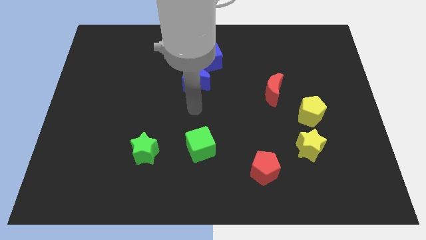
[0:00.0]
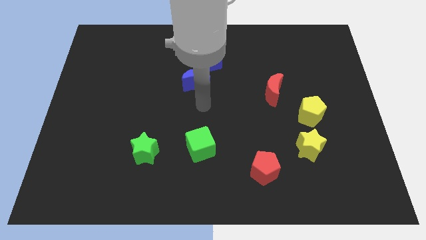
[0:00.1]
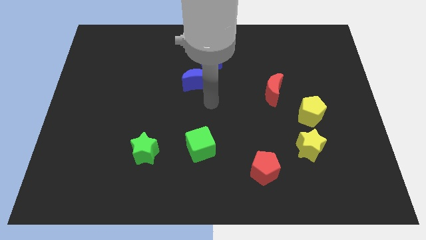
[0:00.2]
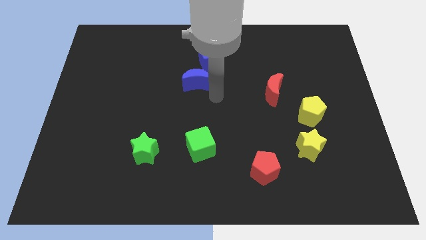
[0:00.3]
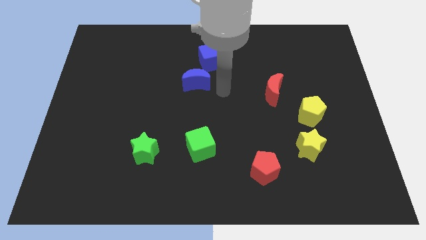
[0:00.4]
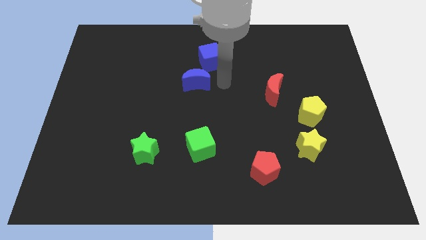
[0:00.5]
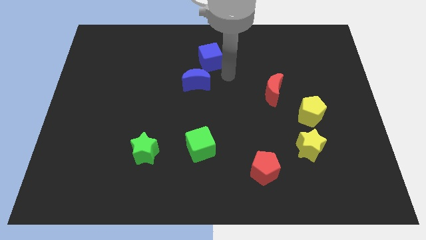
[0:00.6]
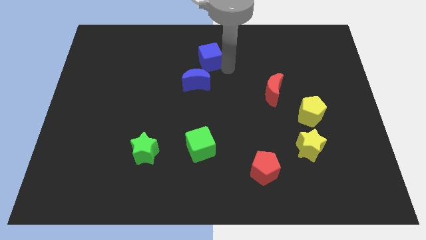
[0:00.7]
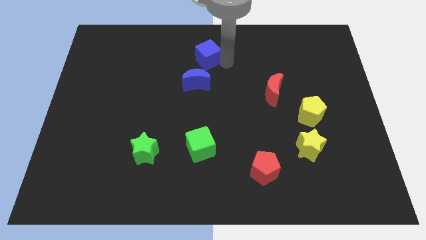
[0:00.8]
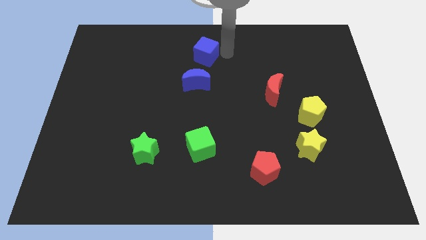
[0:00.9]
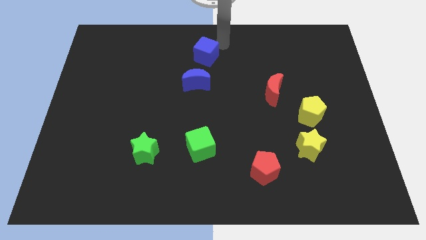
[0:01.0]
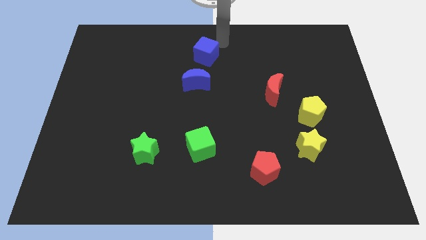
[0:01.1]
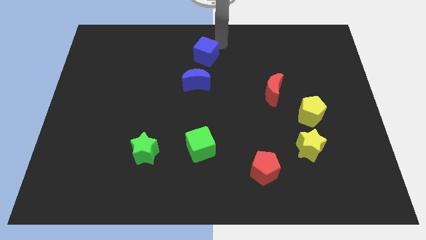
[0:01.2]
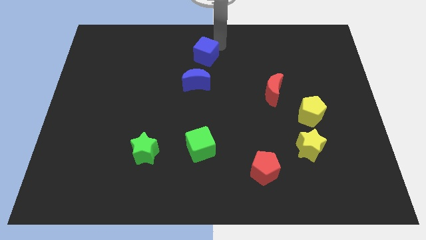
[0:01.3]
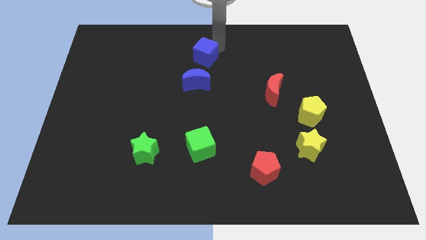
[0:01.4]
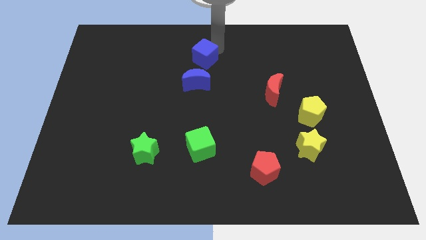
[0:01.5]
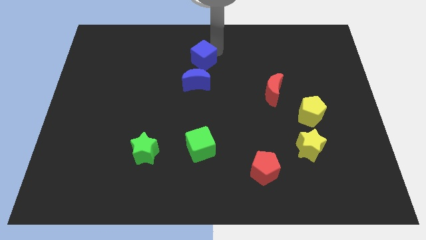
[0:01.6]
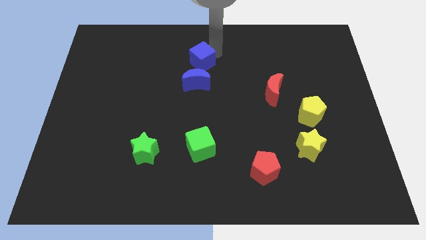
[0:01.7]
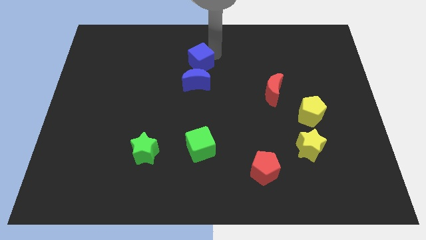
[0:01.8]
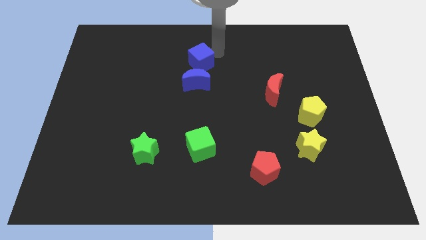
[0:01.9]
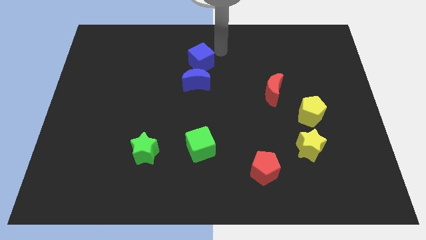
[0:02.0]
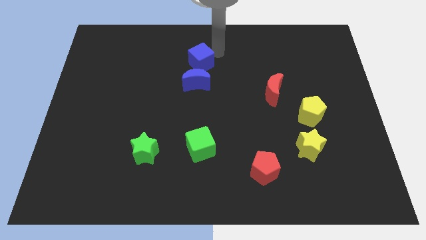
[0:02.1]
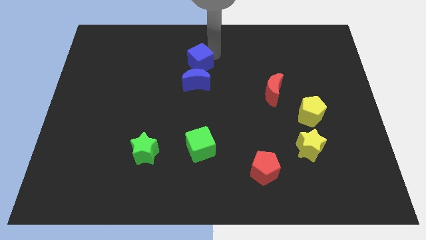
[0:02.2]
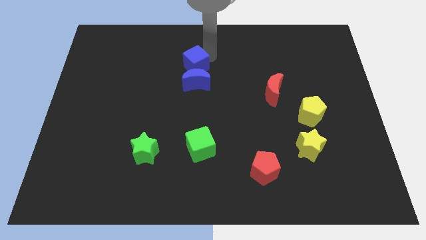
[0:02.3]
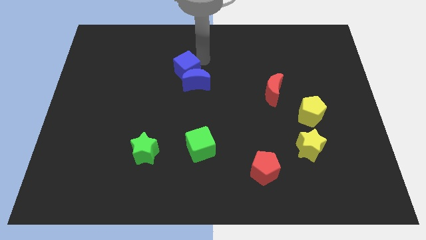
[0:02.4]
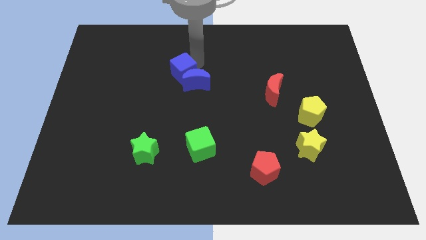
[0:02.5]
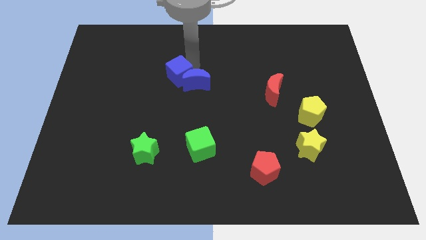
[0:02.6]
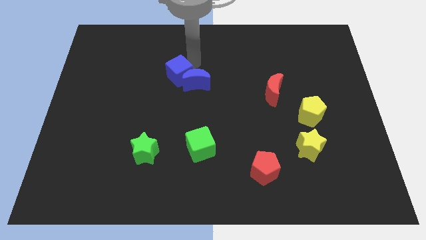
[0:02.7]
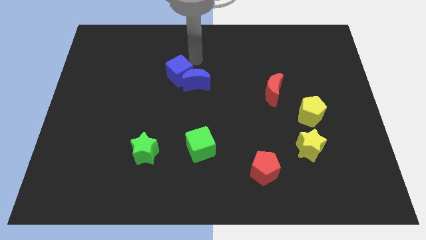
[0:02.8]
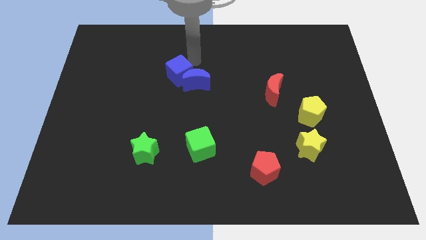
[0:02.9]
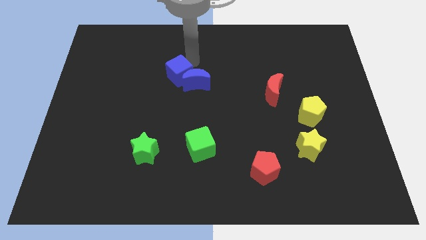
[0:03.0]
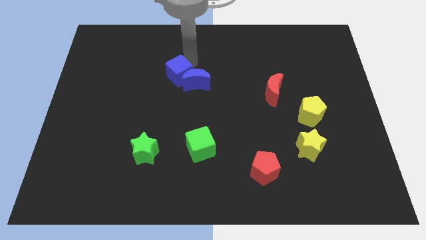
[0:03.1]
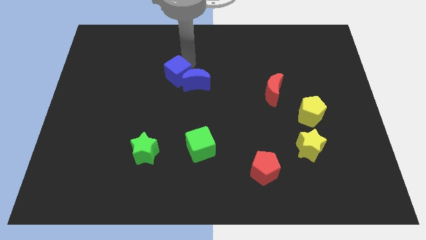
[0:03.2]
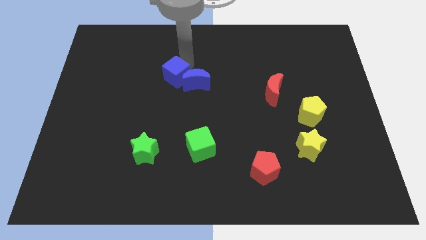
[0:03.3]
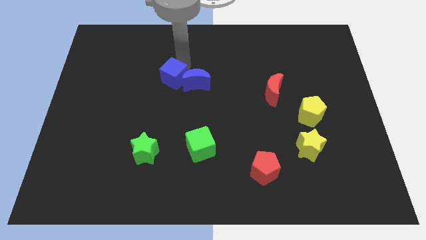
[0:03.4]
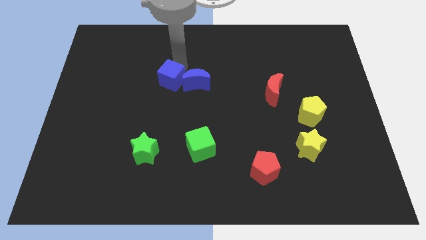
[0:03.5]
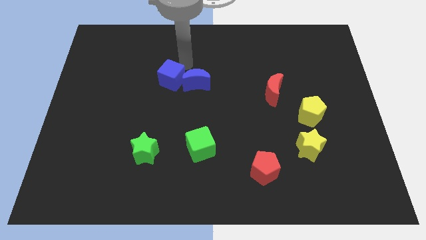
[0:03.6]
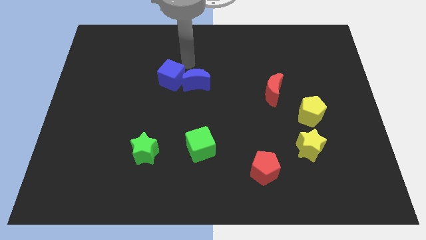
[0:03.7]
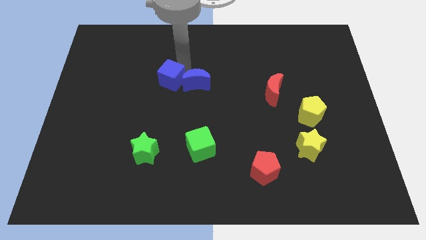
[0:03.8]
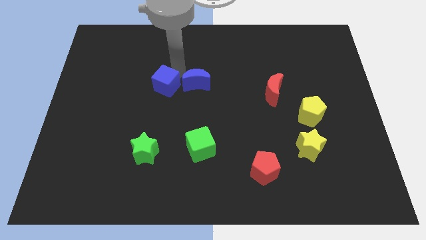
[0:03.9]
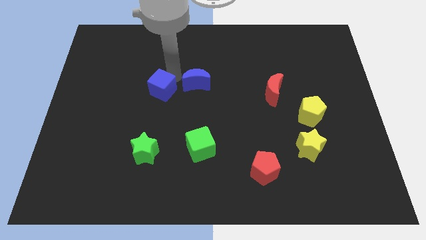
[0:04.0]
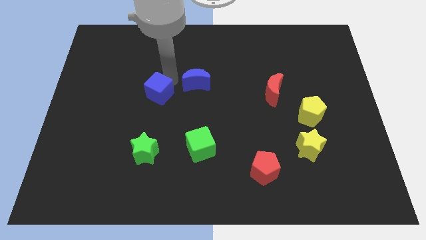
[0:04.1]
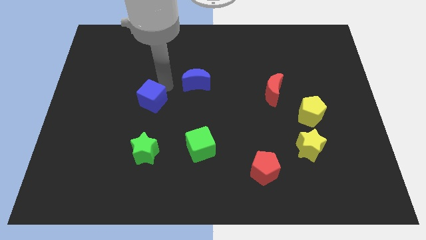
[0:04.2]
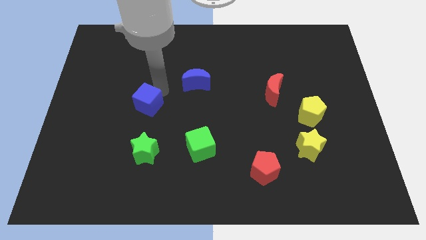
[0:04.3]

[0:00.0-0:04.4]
slide the blue cube downwards and left diagonally

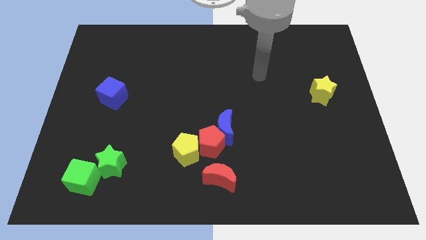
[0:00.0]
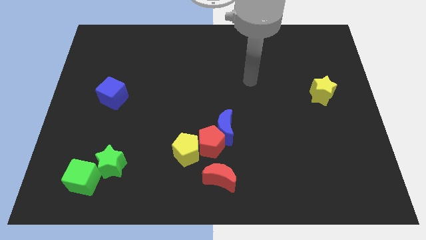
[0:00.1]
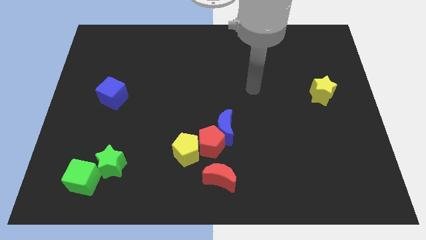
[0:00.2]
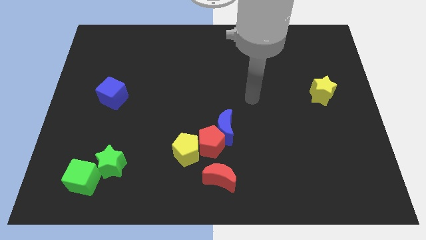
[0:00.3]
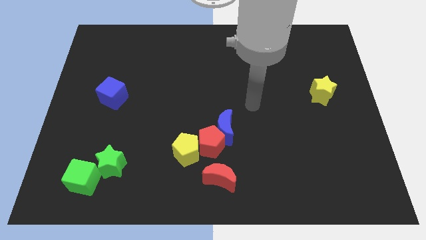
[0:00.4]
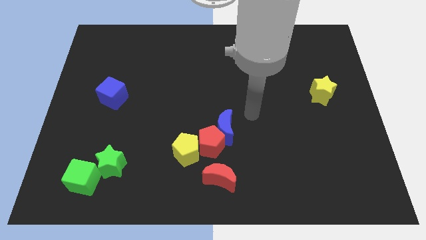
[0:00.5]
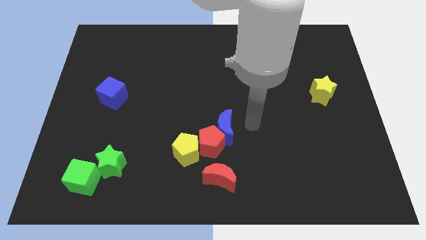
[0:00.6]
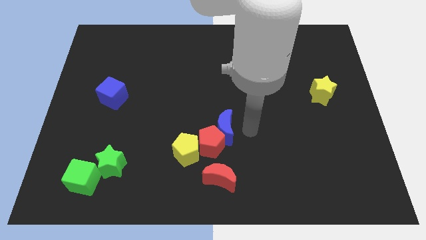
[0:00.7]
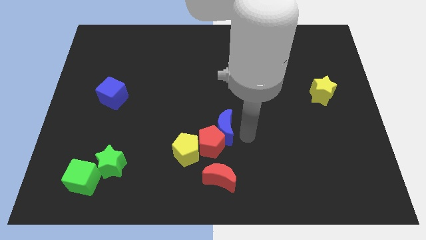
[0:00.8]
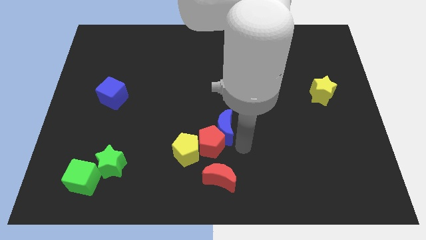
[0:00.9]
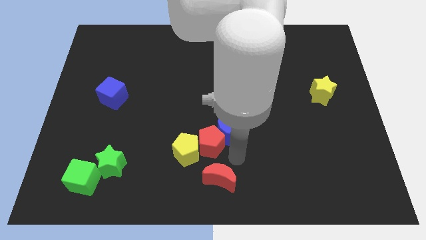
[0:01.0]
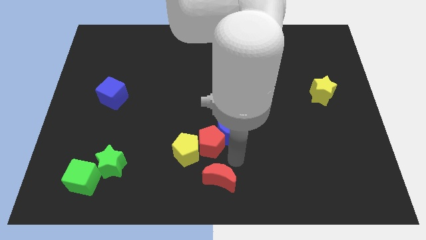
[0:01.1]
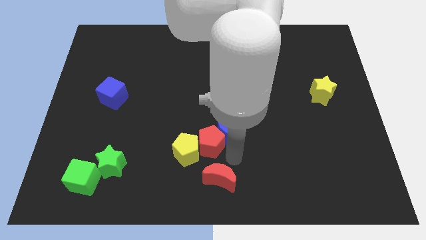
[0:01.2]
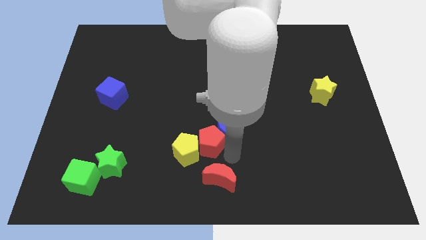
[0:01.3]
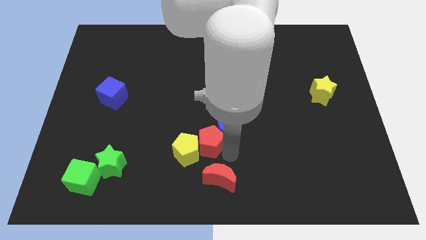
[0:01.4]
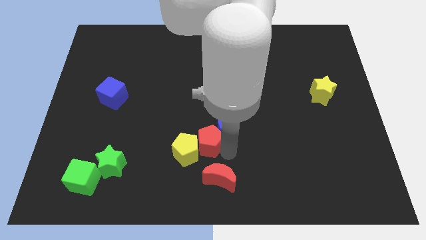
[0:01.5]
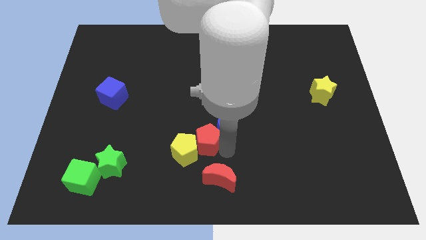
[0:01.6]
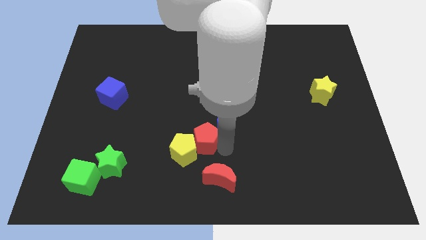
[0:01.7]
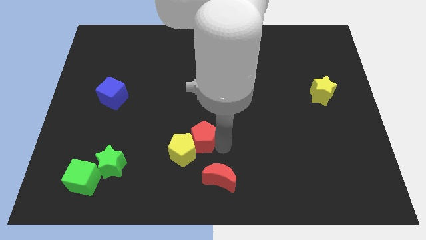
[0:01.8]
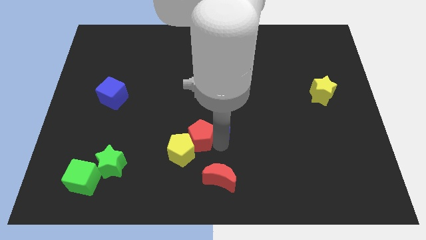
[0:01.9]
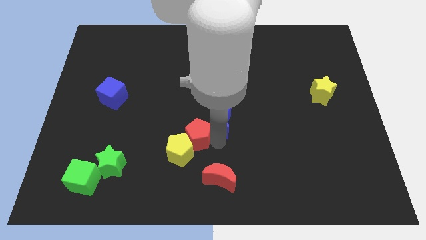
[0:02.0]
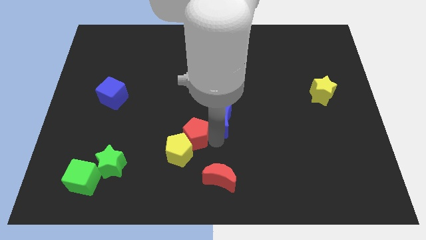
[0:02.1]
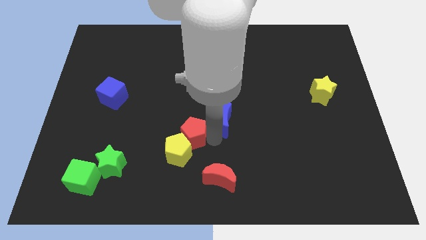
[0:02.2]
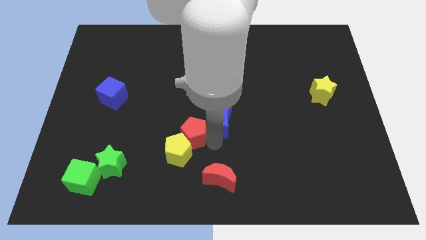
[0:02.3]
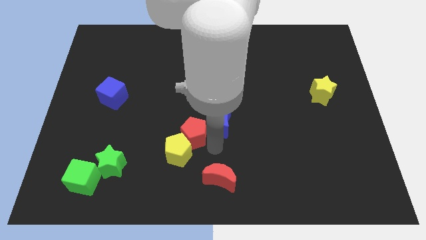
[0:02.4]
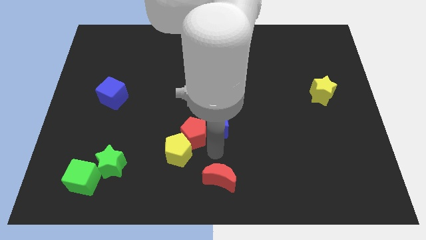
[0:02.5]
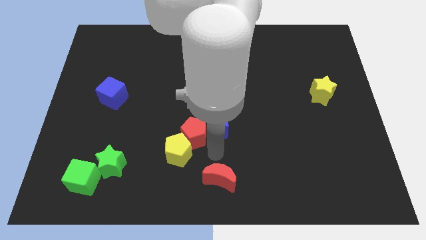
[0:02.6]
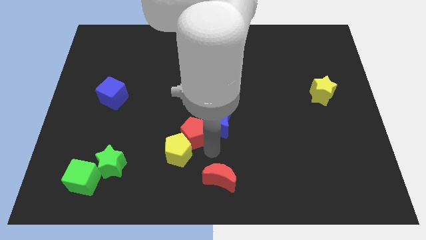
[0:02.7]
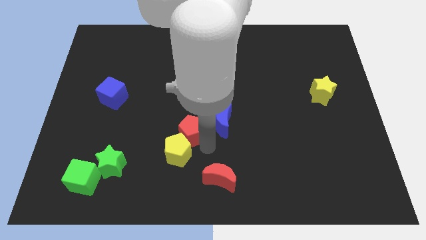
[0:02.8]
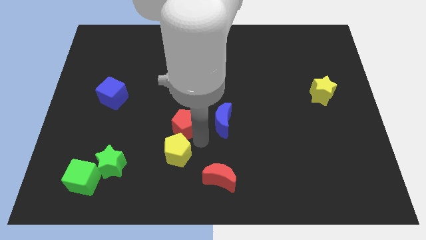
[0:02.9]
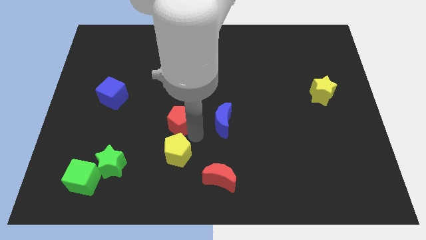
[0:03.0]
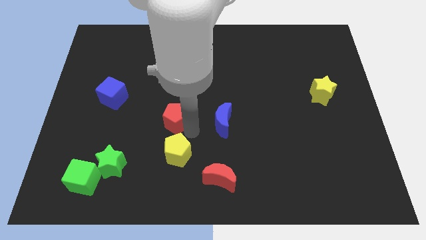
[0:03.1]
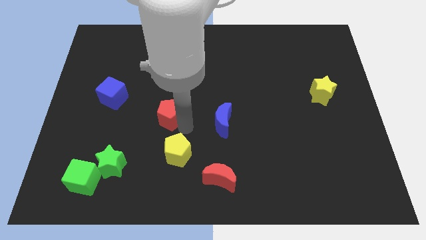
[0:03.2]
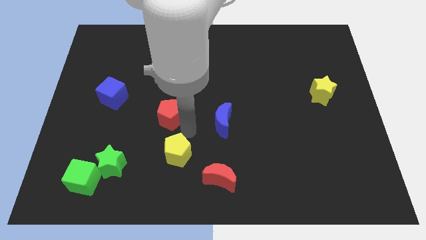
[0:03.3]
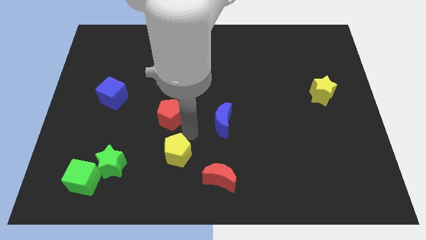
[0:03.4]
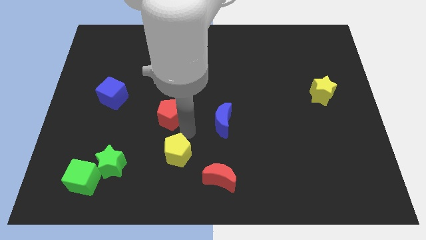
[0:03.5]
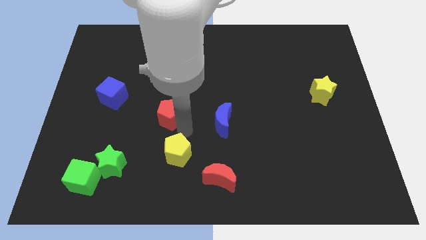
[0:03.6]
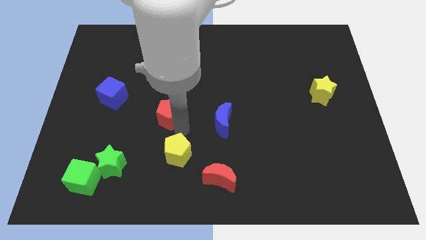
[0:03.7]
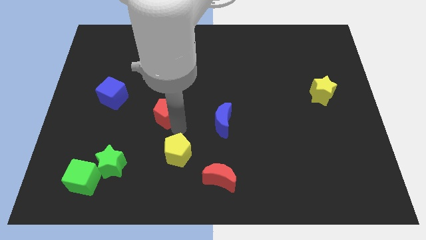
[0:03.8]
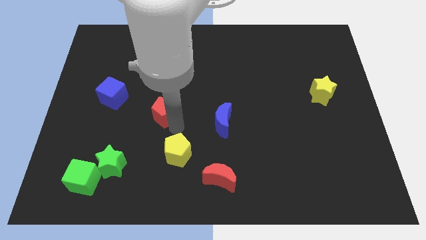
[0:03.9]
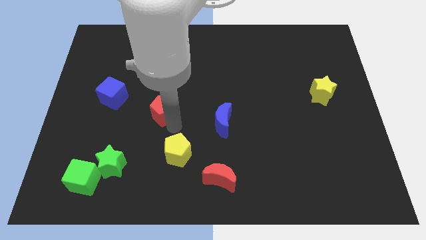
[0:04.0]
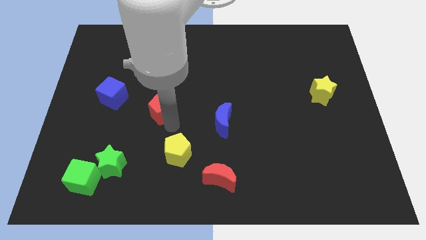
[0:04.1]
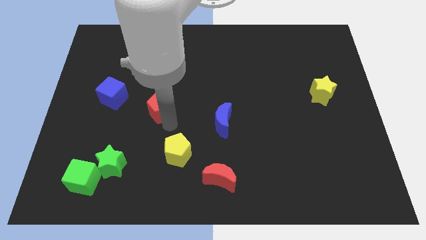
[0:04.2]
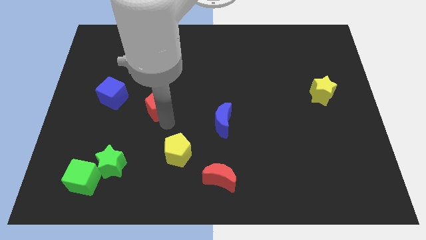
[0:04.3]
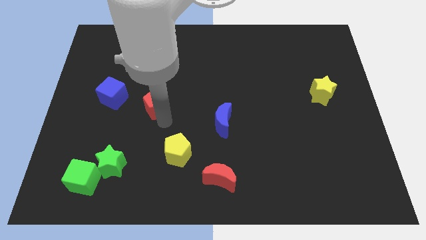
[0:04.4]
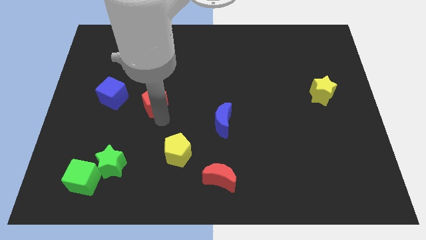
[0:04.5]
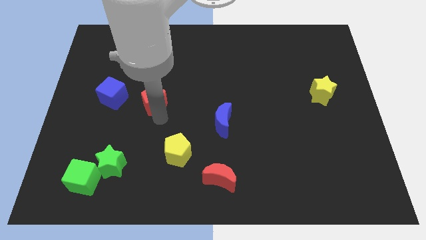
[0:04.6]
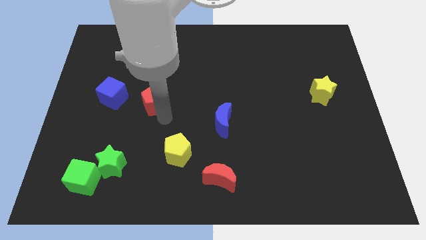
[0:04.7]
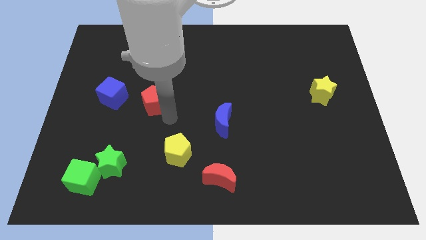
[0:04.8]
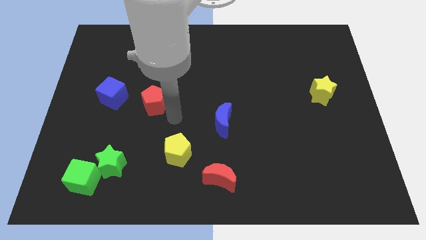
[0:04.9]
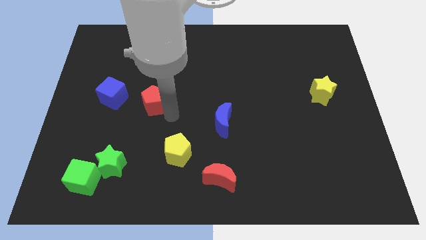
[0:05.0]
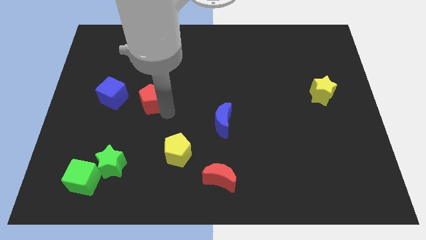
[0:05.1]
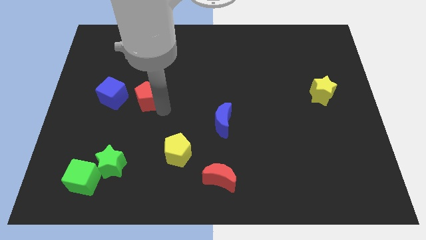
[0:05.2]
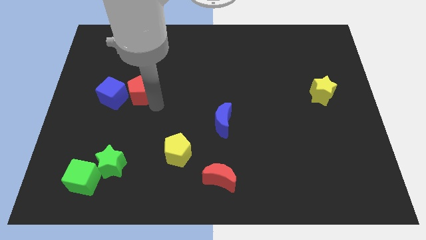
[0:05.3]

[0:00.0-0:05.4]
move the red pentagon upwards and left
